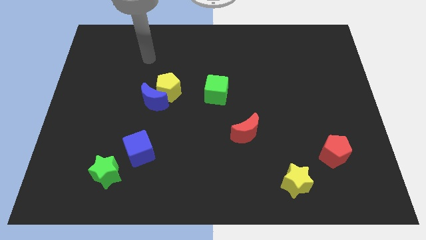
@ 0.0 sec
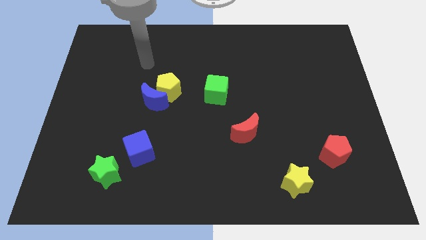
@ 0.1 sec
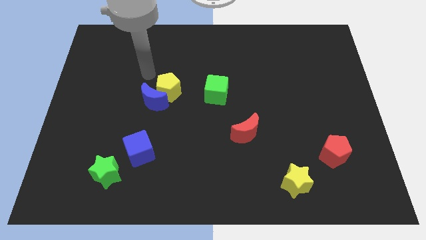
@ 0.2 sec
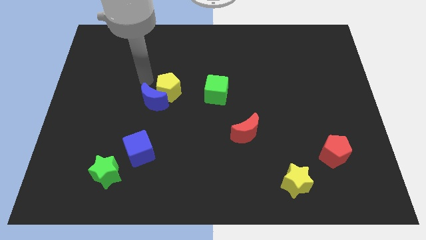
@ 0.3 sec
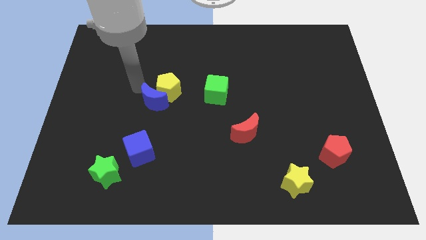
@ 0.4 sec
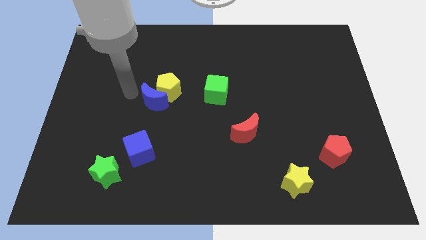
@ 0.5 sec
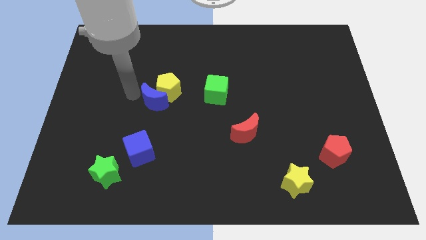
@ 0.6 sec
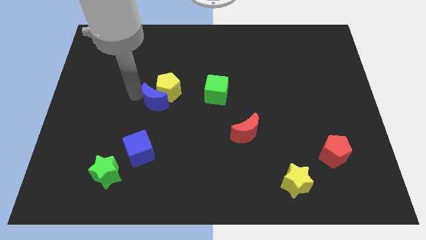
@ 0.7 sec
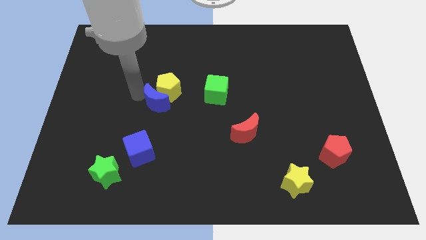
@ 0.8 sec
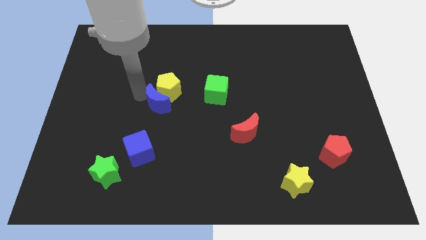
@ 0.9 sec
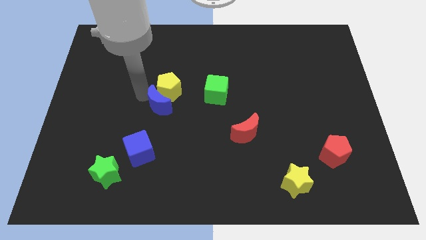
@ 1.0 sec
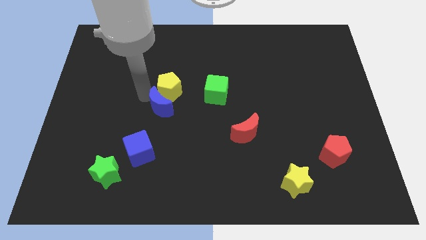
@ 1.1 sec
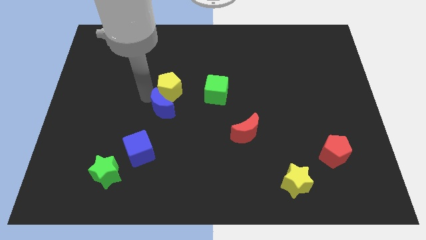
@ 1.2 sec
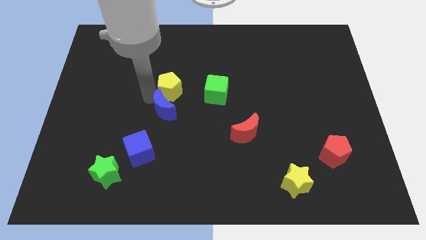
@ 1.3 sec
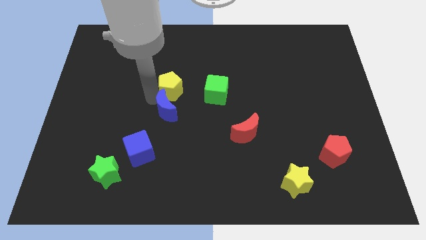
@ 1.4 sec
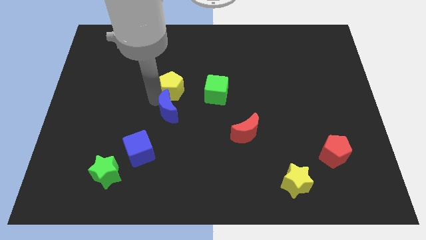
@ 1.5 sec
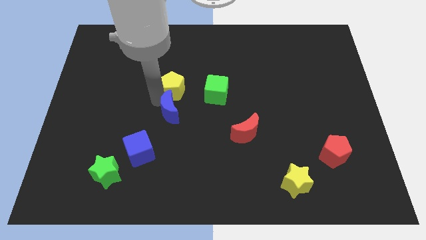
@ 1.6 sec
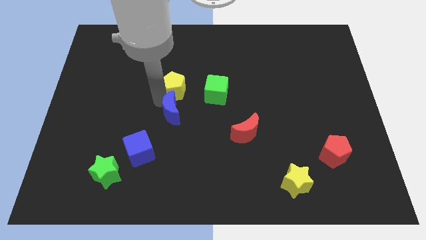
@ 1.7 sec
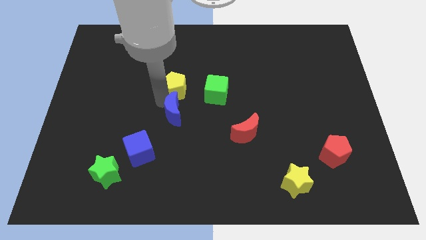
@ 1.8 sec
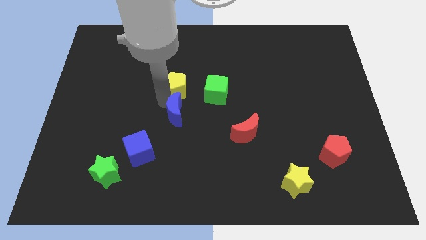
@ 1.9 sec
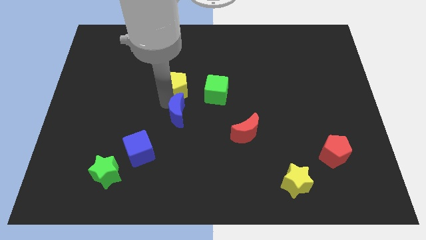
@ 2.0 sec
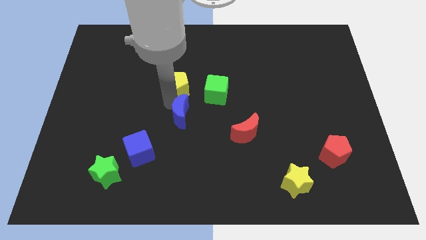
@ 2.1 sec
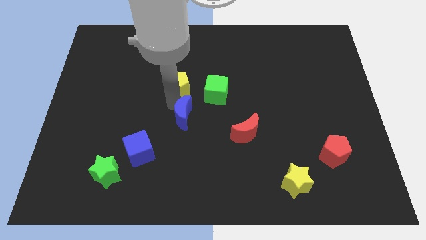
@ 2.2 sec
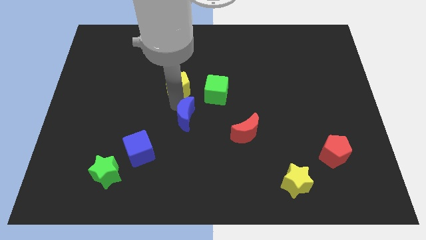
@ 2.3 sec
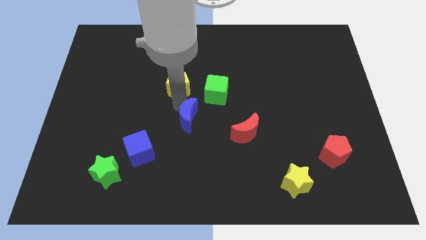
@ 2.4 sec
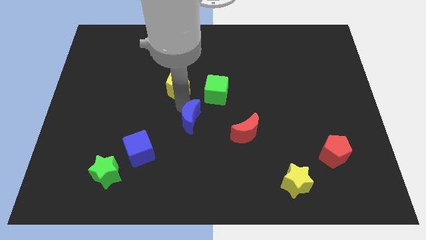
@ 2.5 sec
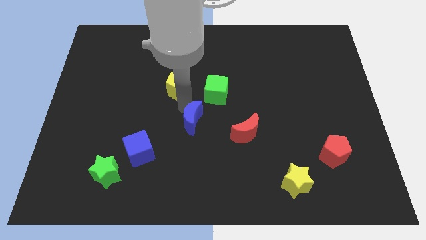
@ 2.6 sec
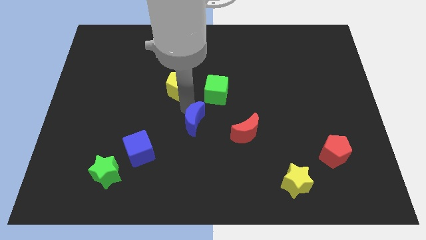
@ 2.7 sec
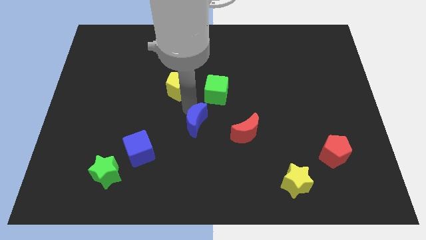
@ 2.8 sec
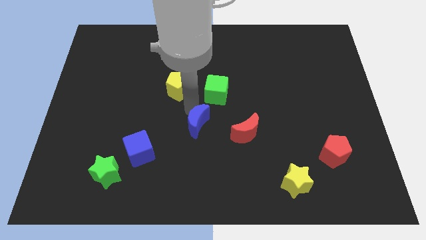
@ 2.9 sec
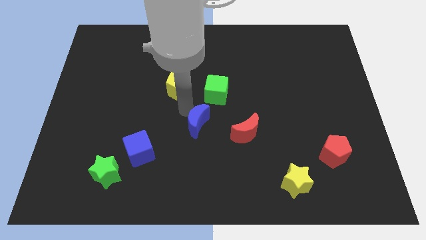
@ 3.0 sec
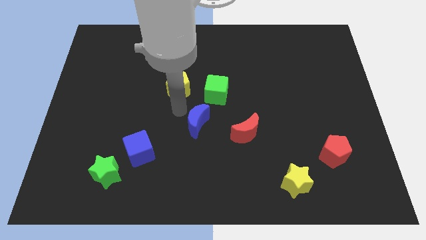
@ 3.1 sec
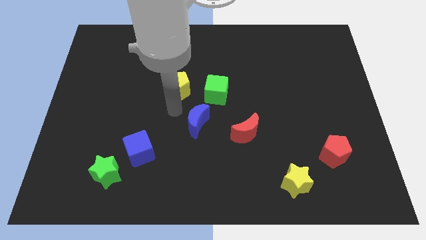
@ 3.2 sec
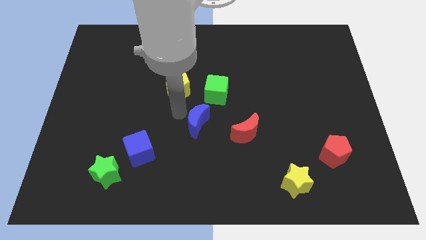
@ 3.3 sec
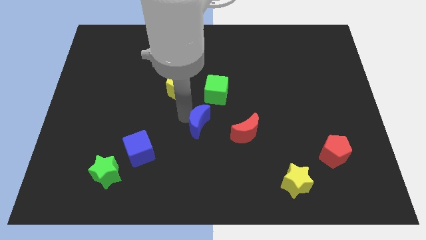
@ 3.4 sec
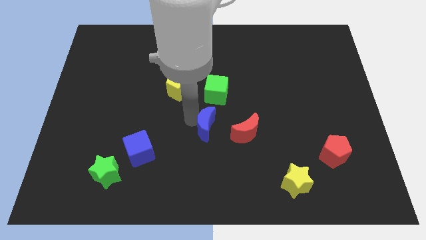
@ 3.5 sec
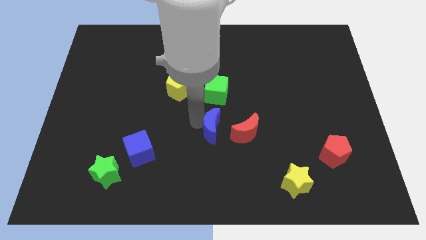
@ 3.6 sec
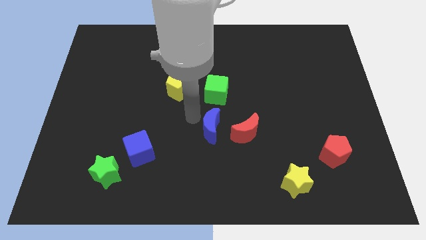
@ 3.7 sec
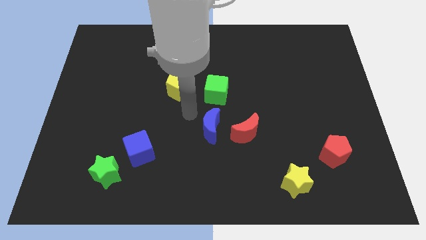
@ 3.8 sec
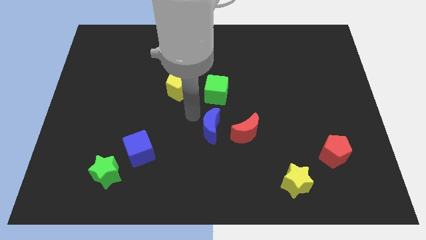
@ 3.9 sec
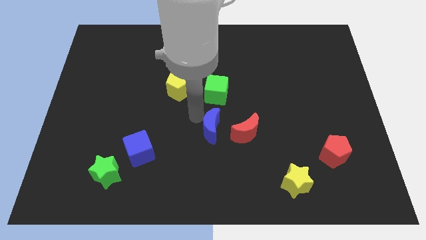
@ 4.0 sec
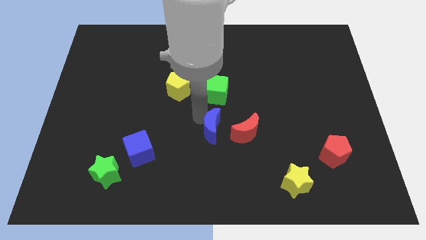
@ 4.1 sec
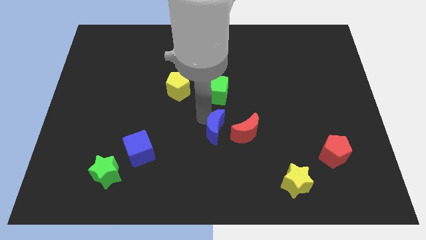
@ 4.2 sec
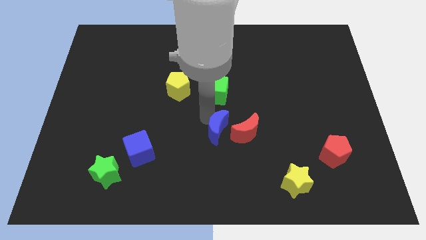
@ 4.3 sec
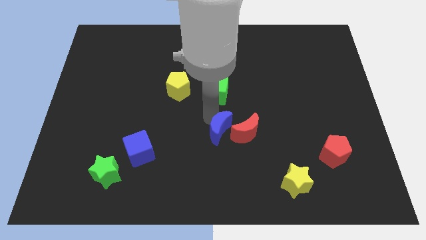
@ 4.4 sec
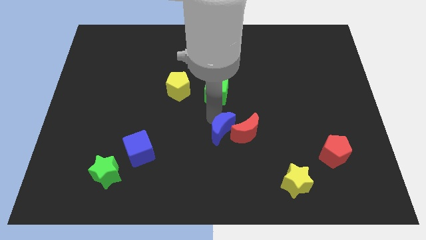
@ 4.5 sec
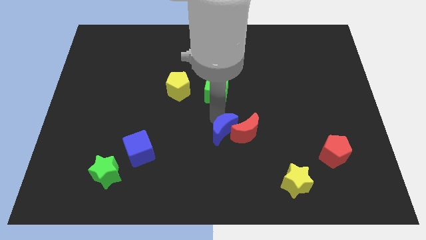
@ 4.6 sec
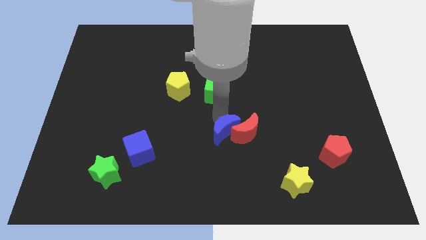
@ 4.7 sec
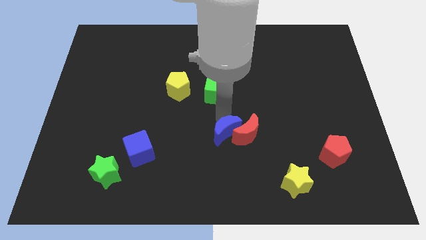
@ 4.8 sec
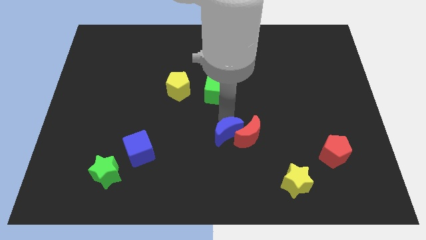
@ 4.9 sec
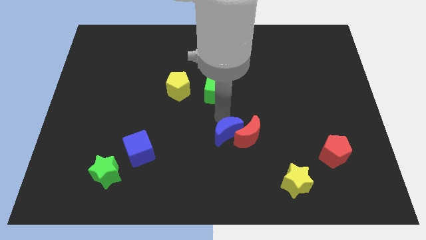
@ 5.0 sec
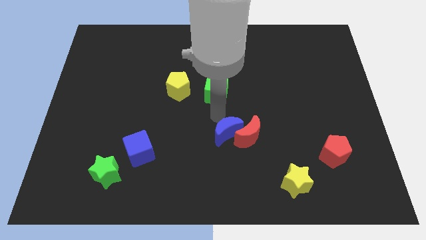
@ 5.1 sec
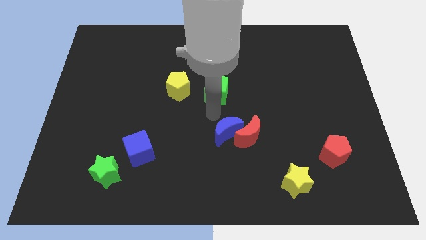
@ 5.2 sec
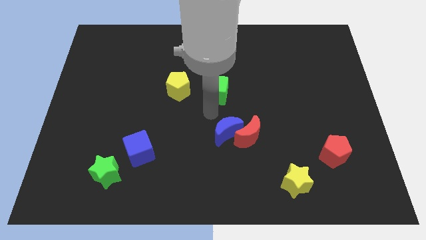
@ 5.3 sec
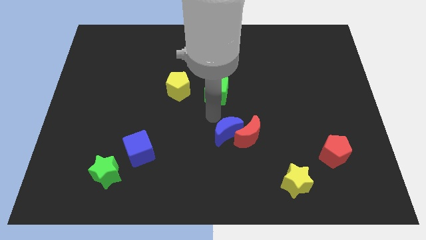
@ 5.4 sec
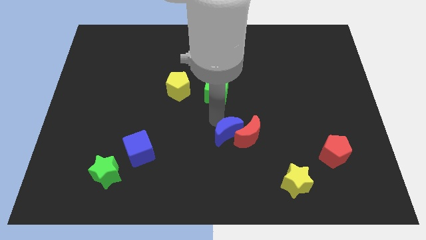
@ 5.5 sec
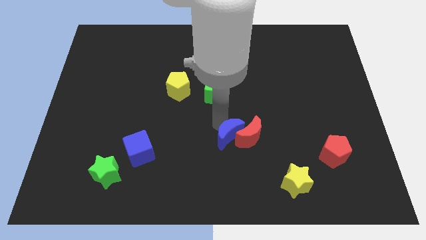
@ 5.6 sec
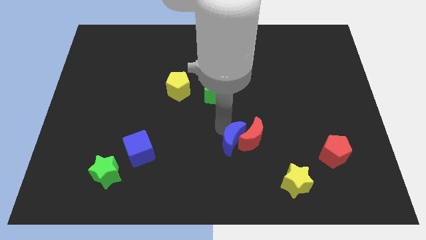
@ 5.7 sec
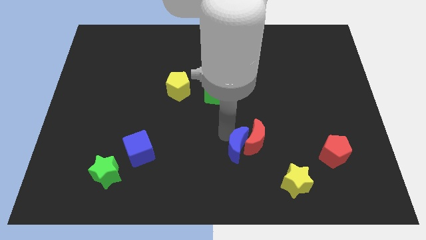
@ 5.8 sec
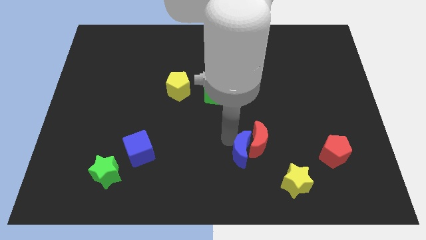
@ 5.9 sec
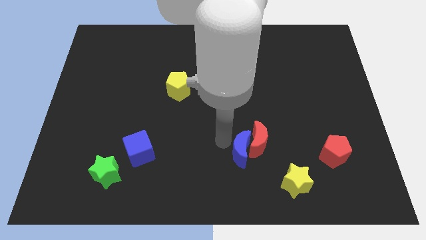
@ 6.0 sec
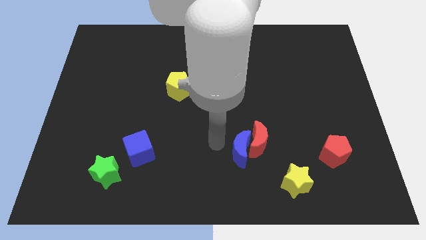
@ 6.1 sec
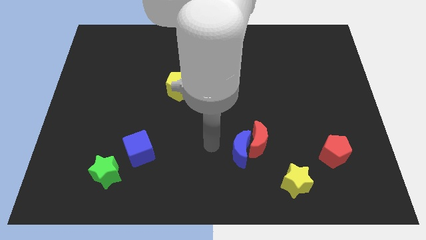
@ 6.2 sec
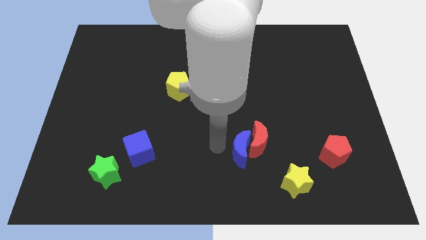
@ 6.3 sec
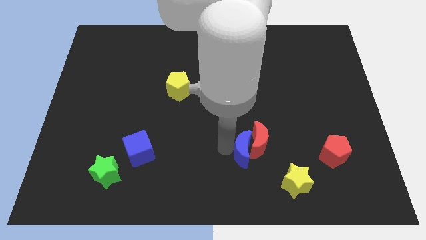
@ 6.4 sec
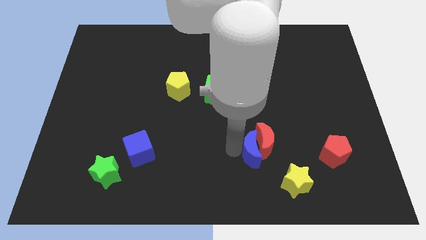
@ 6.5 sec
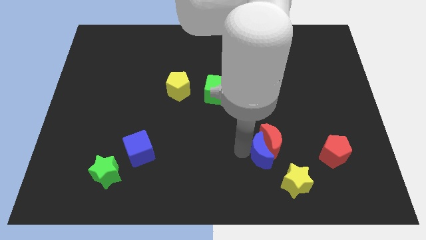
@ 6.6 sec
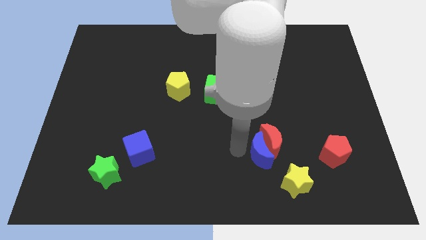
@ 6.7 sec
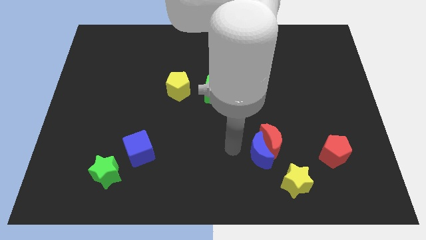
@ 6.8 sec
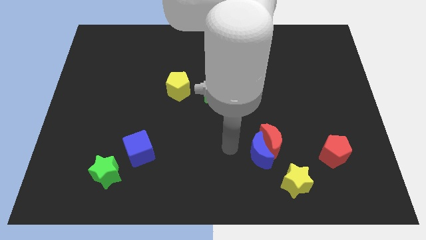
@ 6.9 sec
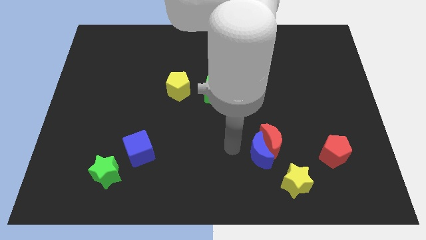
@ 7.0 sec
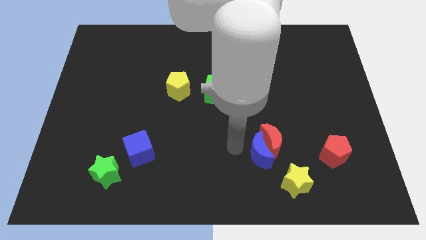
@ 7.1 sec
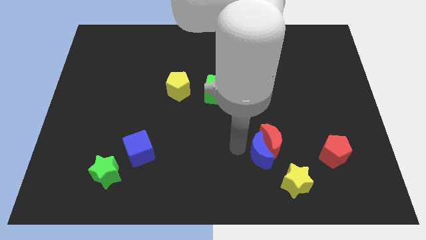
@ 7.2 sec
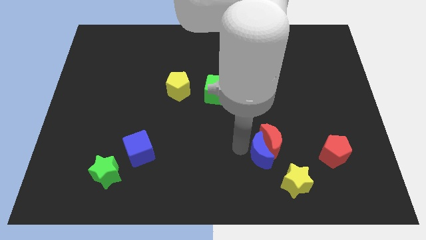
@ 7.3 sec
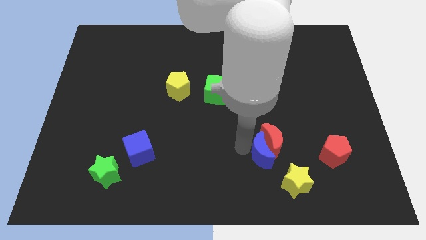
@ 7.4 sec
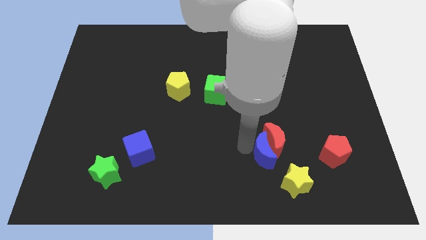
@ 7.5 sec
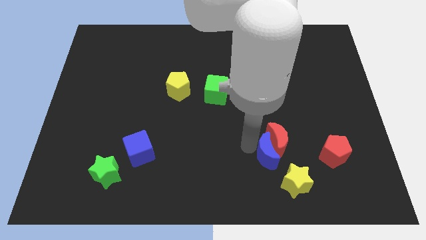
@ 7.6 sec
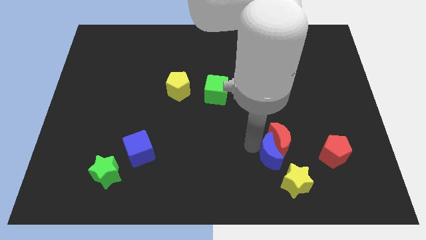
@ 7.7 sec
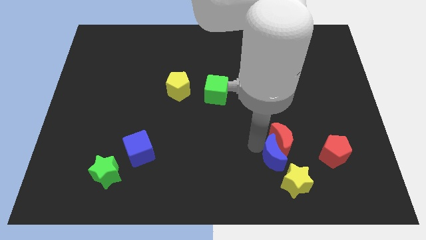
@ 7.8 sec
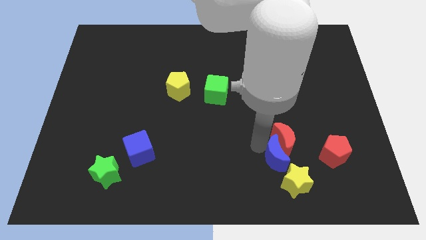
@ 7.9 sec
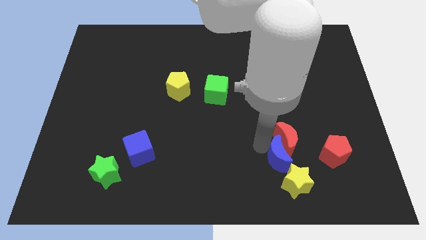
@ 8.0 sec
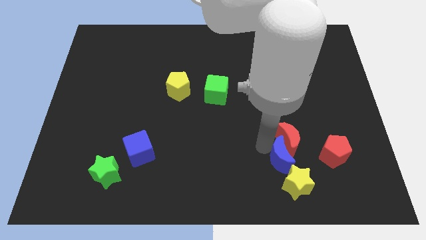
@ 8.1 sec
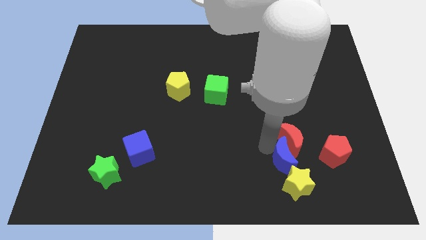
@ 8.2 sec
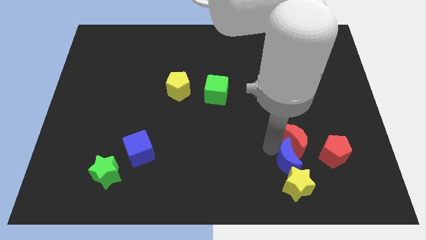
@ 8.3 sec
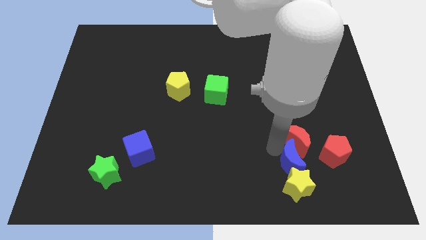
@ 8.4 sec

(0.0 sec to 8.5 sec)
slide the blue moon diagonally up and to the right of the yellow star
